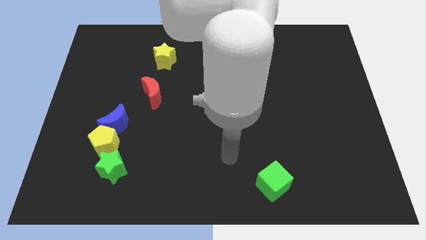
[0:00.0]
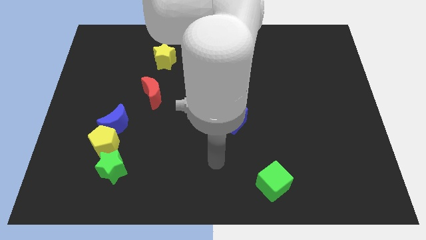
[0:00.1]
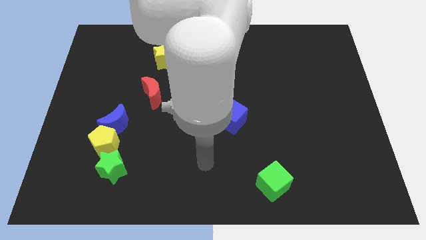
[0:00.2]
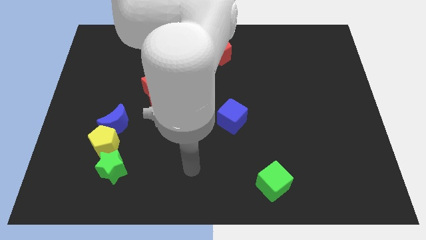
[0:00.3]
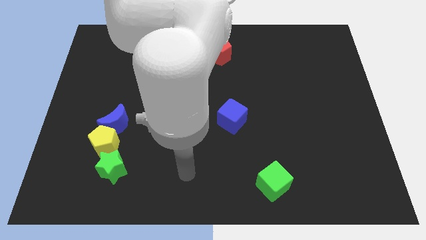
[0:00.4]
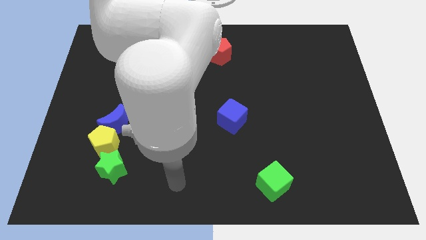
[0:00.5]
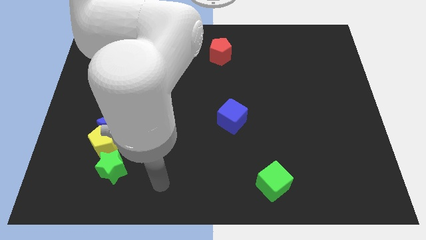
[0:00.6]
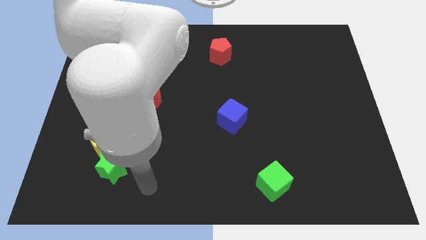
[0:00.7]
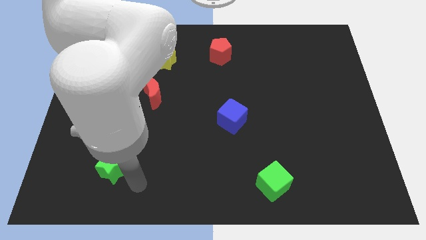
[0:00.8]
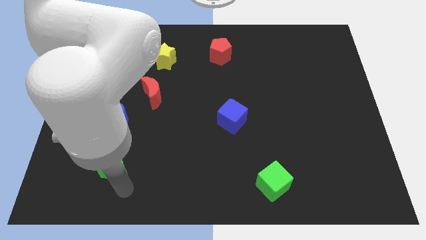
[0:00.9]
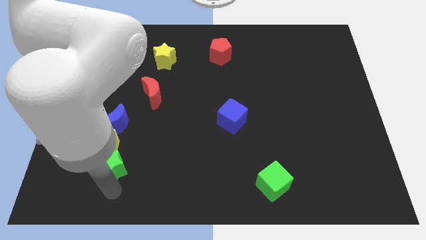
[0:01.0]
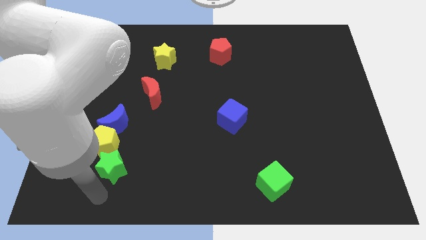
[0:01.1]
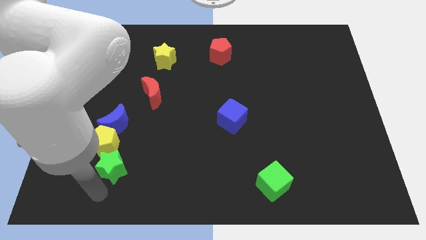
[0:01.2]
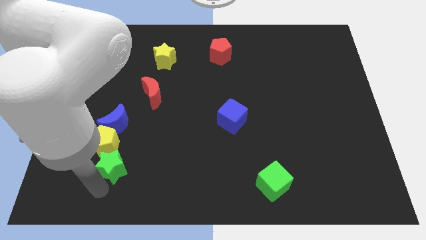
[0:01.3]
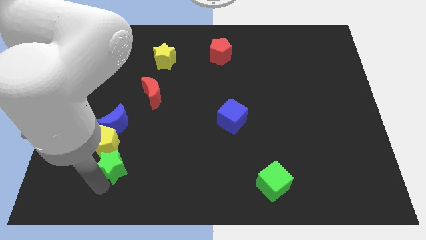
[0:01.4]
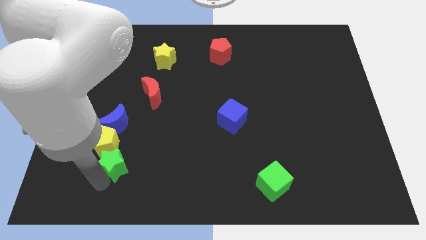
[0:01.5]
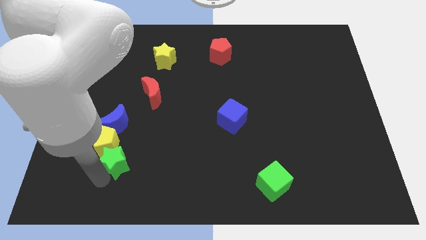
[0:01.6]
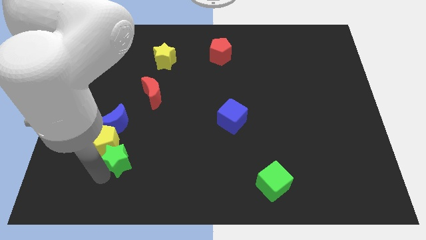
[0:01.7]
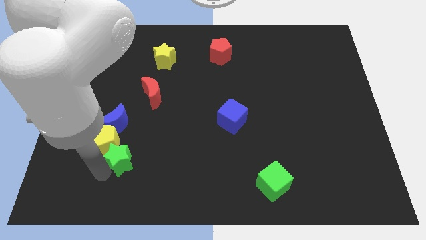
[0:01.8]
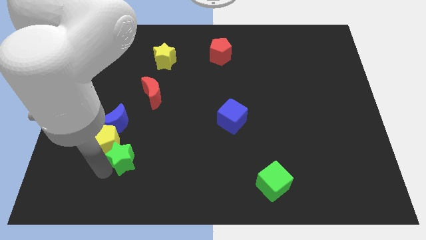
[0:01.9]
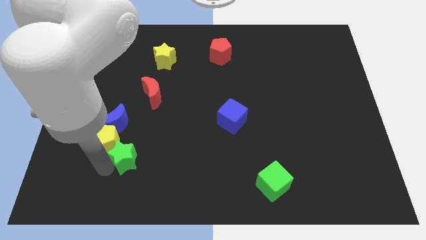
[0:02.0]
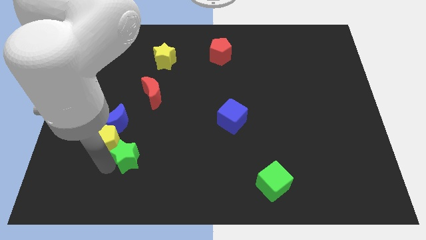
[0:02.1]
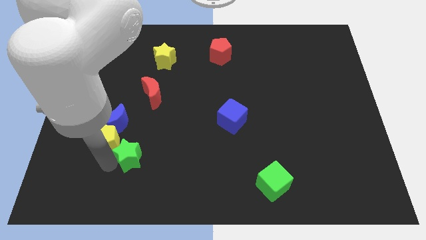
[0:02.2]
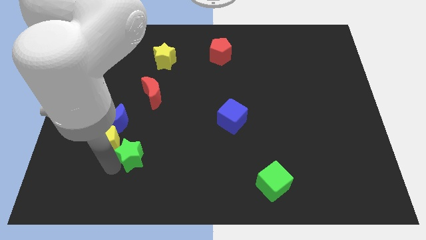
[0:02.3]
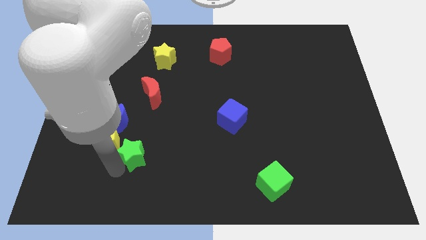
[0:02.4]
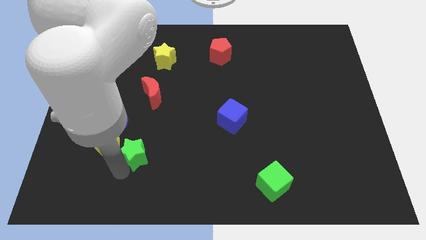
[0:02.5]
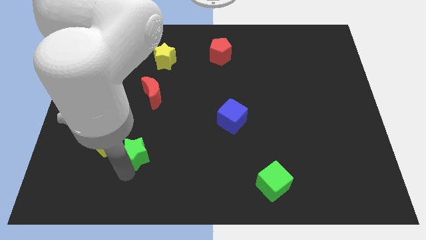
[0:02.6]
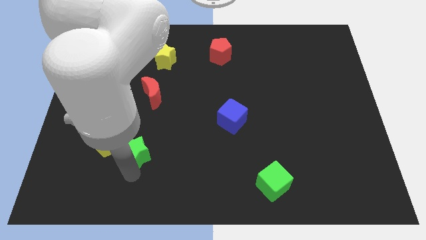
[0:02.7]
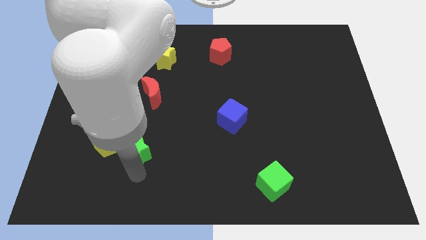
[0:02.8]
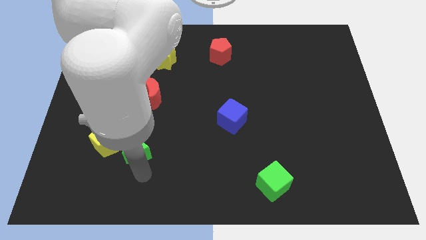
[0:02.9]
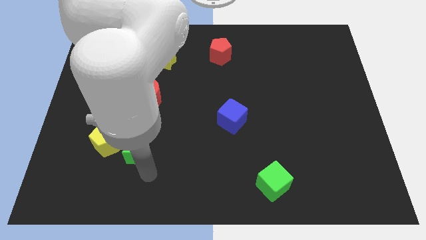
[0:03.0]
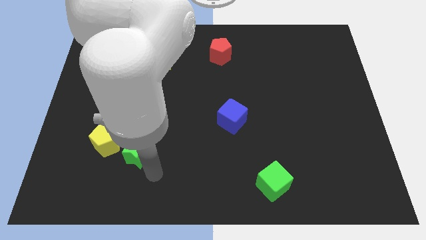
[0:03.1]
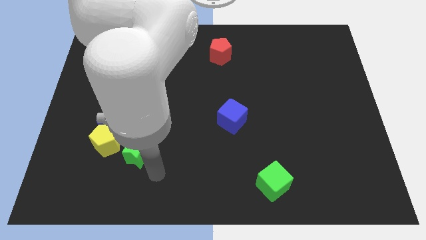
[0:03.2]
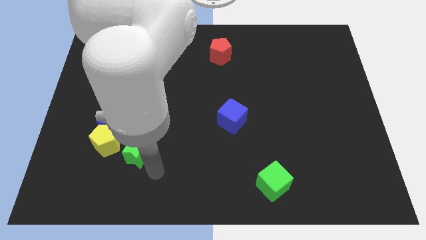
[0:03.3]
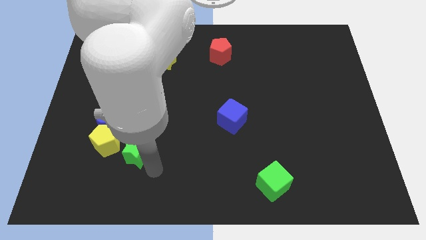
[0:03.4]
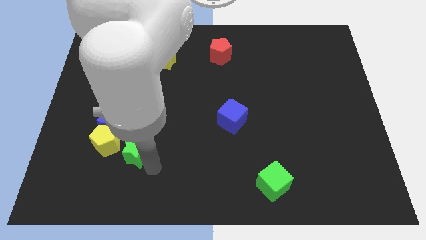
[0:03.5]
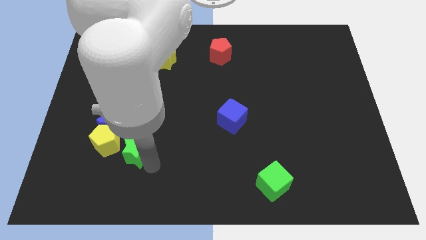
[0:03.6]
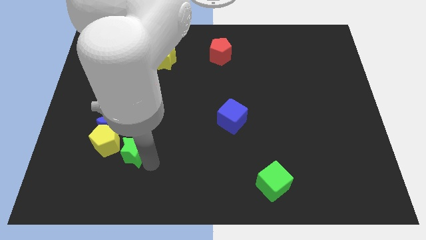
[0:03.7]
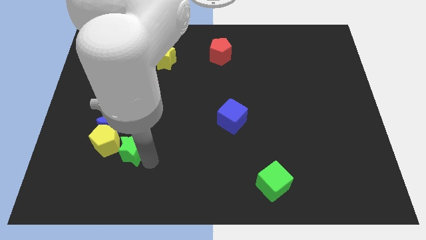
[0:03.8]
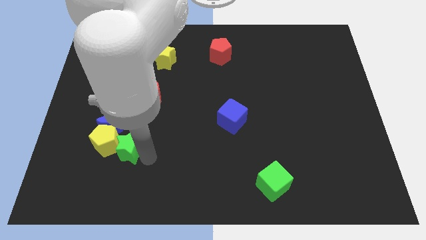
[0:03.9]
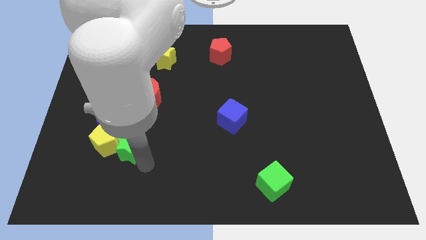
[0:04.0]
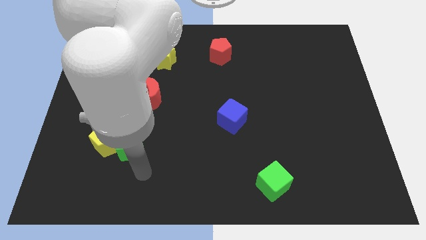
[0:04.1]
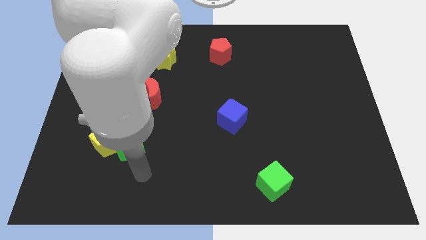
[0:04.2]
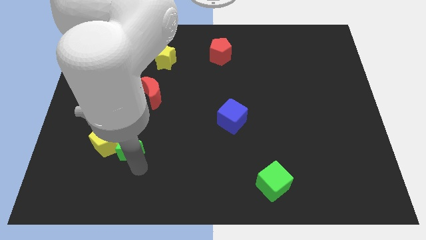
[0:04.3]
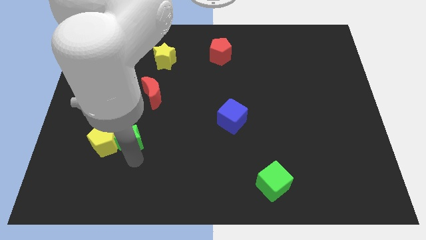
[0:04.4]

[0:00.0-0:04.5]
move the green star close to the blue moon

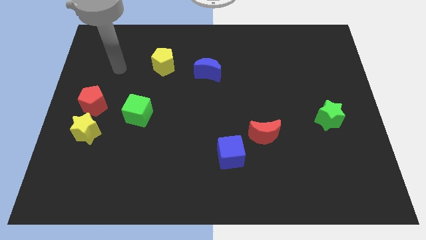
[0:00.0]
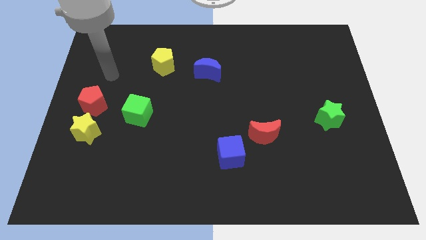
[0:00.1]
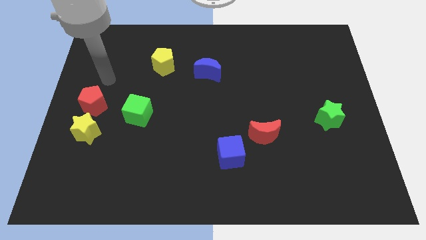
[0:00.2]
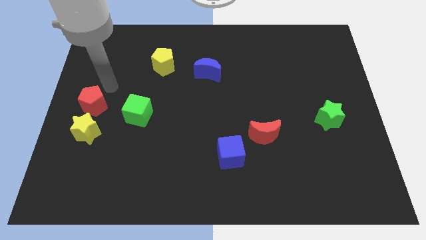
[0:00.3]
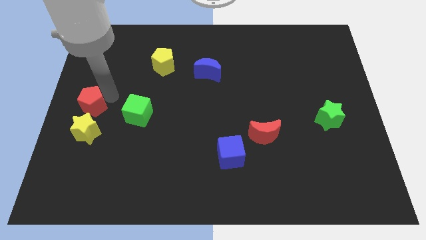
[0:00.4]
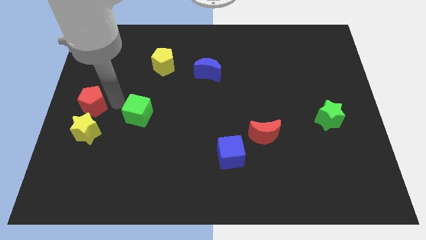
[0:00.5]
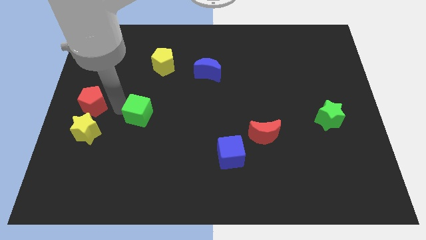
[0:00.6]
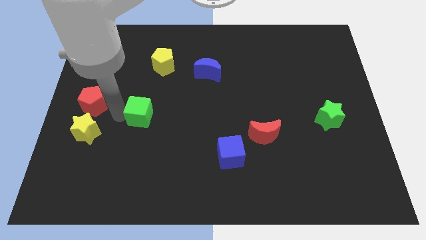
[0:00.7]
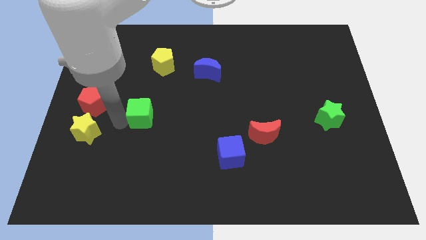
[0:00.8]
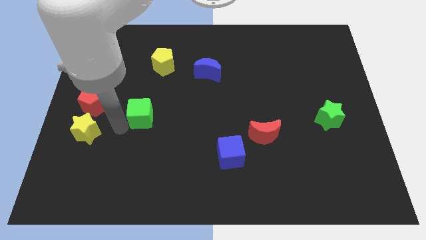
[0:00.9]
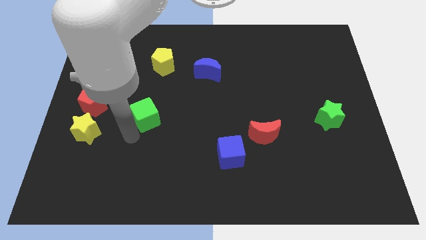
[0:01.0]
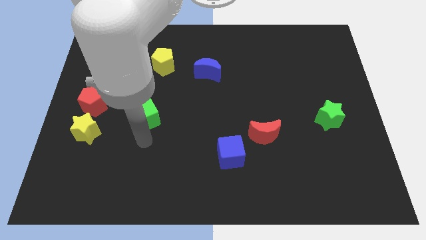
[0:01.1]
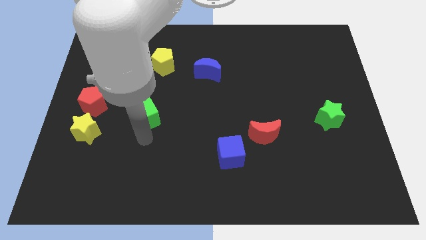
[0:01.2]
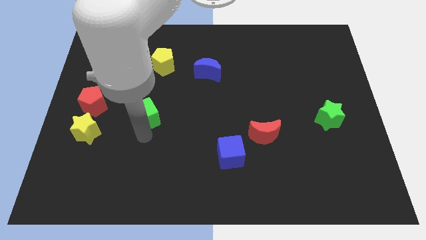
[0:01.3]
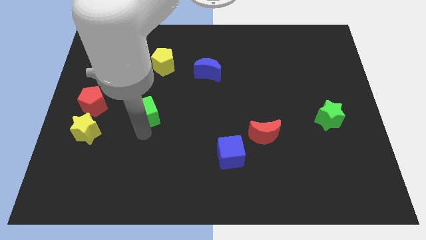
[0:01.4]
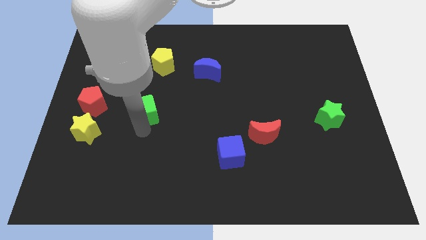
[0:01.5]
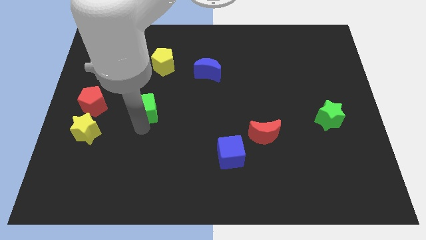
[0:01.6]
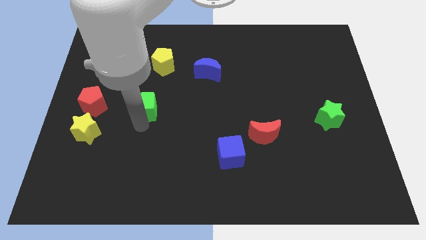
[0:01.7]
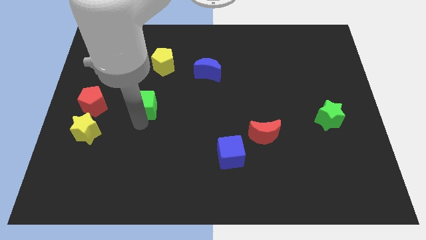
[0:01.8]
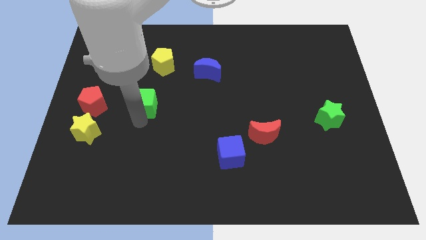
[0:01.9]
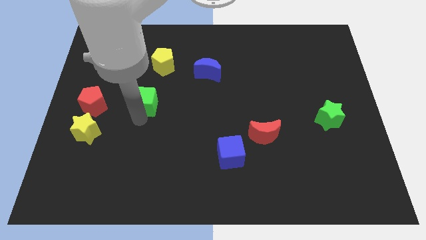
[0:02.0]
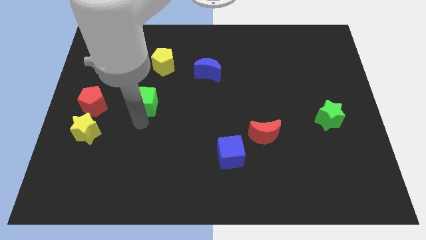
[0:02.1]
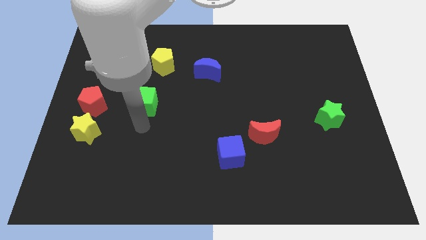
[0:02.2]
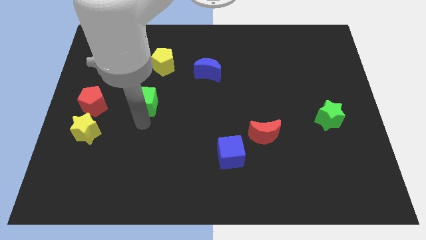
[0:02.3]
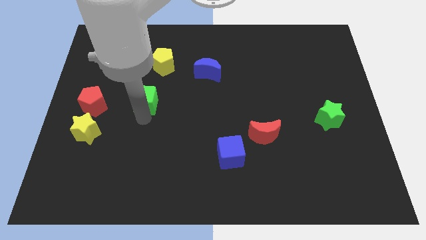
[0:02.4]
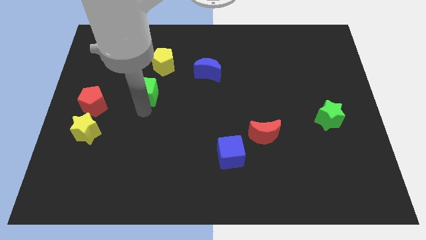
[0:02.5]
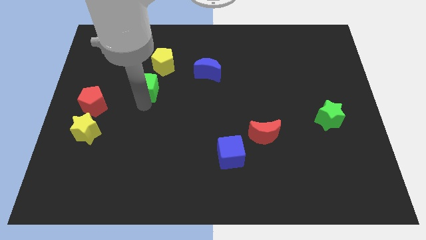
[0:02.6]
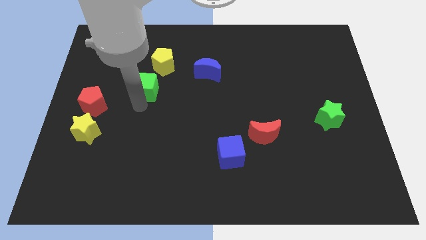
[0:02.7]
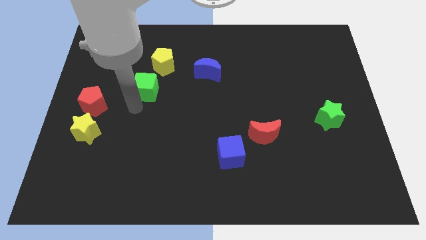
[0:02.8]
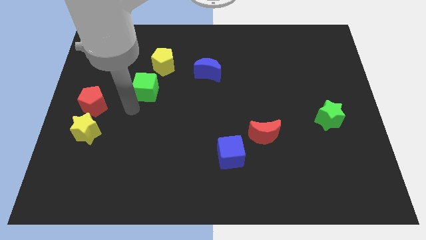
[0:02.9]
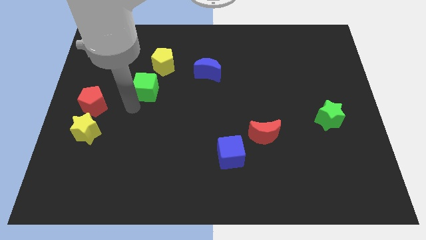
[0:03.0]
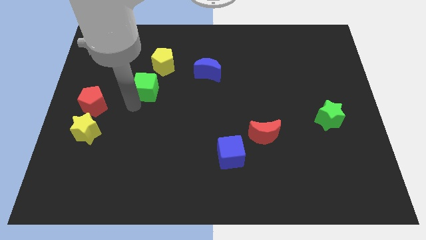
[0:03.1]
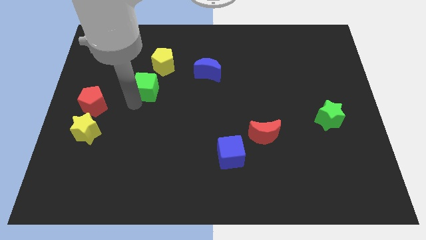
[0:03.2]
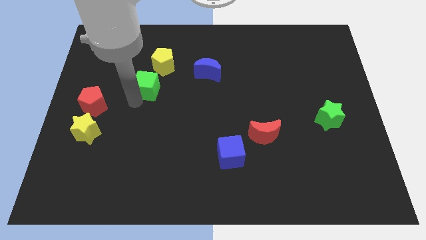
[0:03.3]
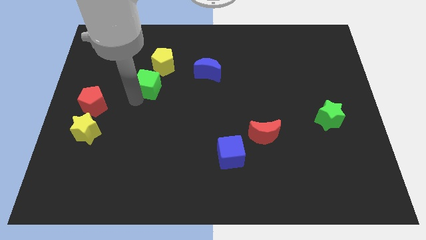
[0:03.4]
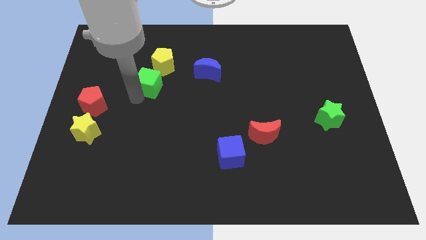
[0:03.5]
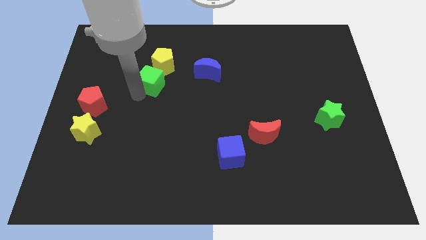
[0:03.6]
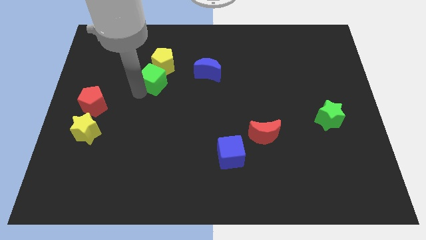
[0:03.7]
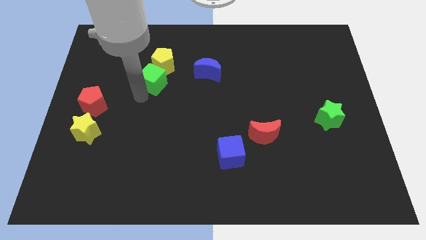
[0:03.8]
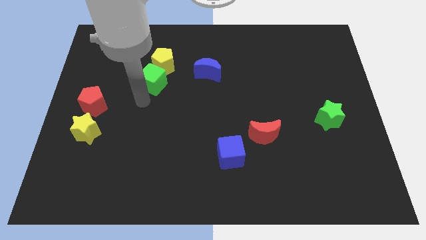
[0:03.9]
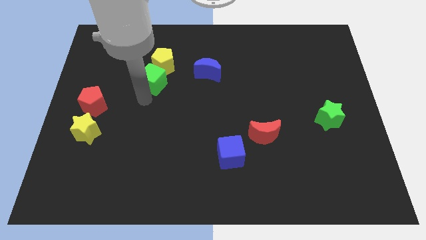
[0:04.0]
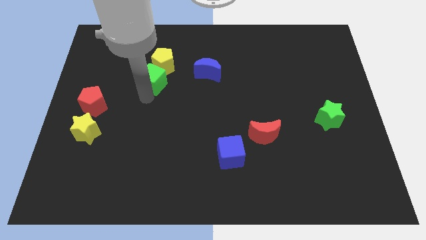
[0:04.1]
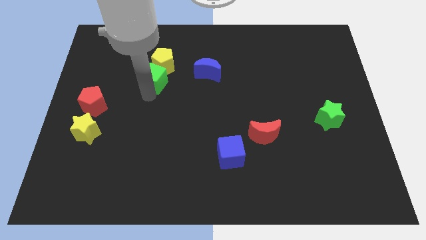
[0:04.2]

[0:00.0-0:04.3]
move the green cube next to the yellow pentagon
